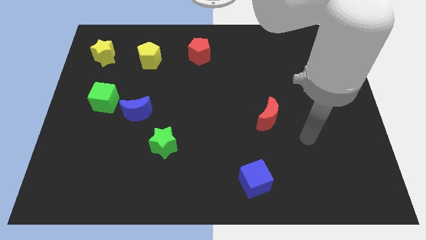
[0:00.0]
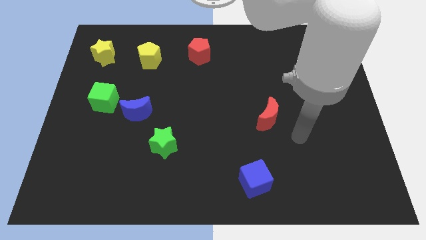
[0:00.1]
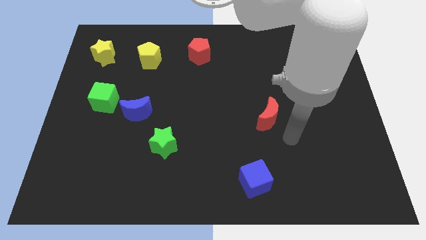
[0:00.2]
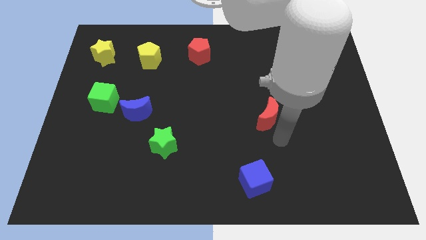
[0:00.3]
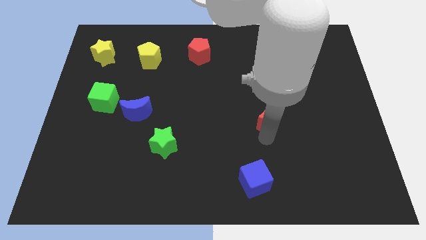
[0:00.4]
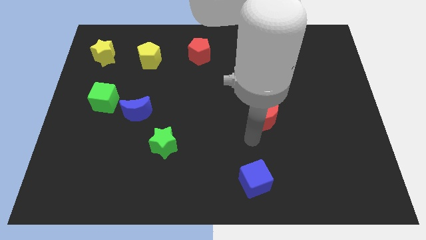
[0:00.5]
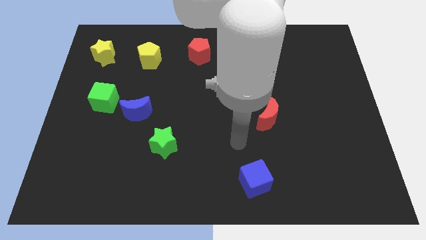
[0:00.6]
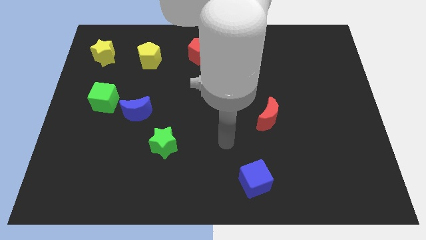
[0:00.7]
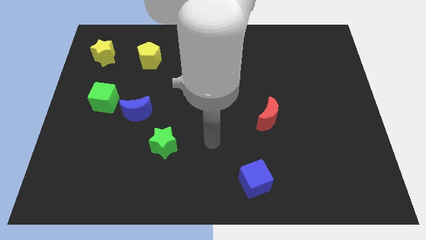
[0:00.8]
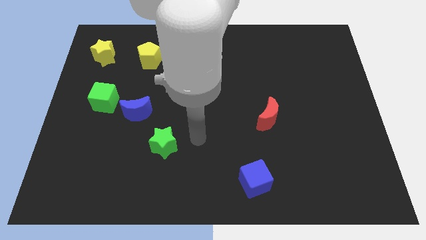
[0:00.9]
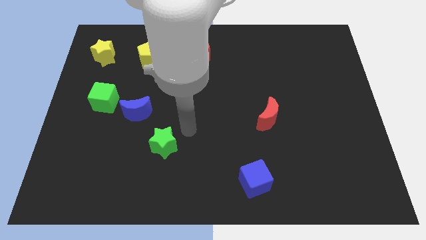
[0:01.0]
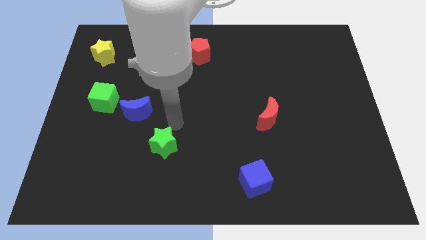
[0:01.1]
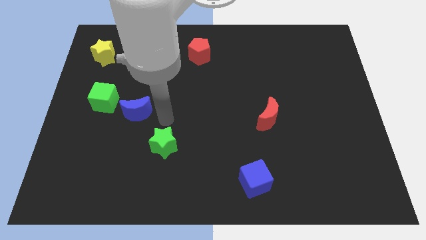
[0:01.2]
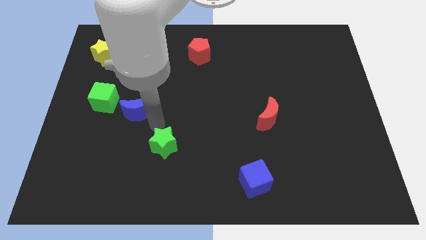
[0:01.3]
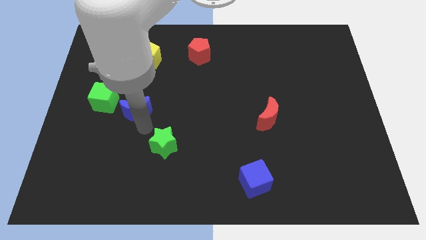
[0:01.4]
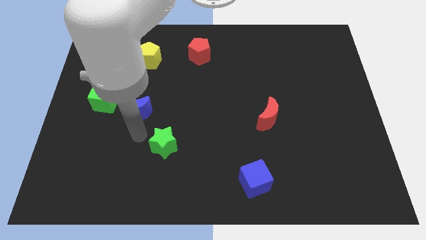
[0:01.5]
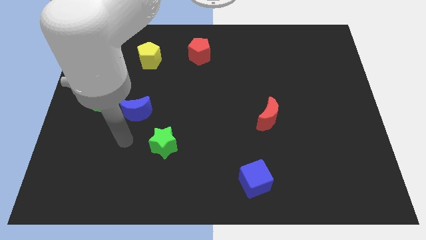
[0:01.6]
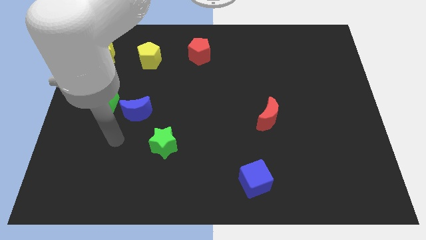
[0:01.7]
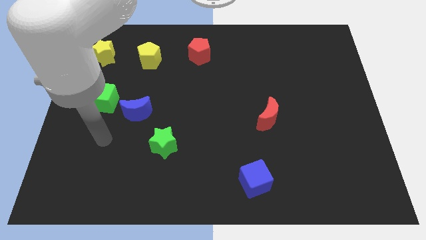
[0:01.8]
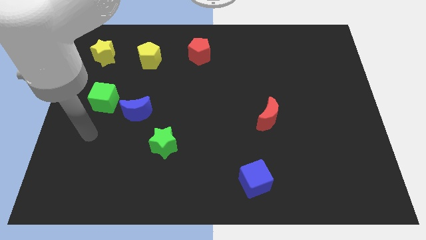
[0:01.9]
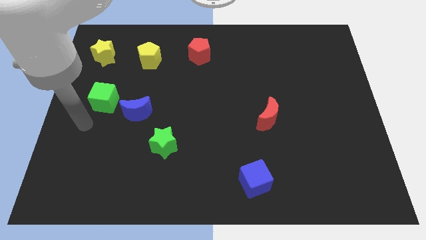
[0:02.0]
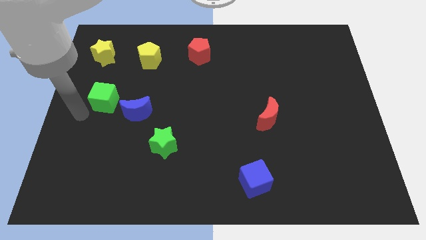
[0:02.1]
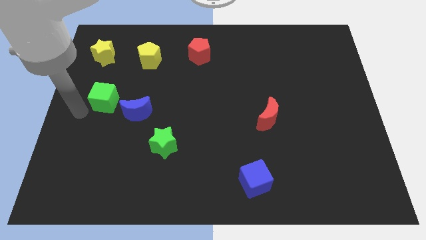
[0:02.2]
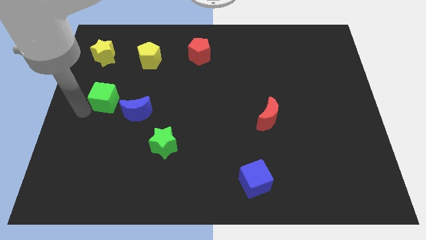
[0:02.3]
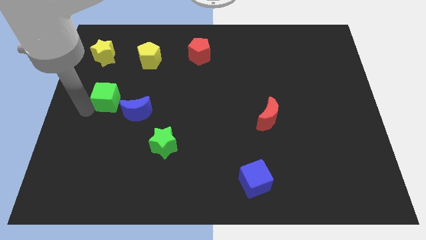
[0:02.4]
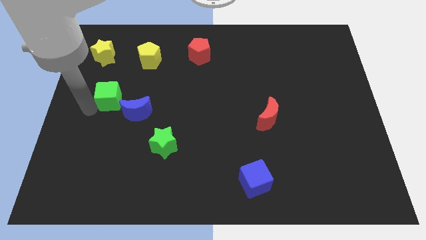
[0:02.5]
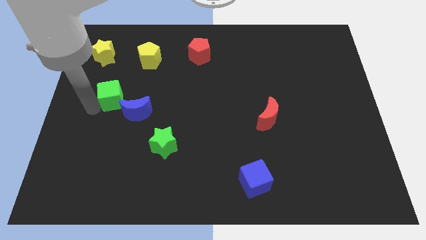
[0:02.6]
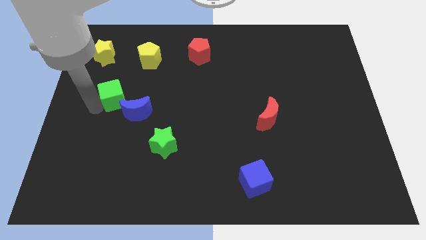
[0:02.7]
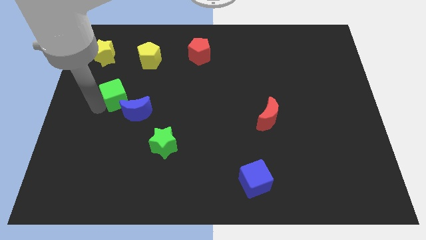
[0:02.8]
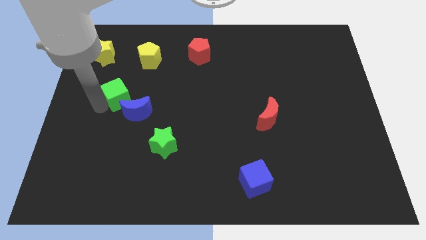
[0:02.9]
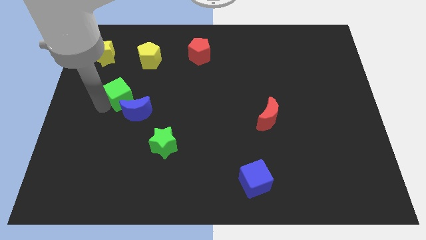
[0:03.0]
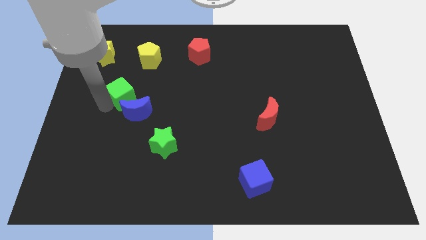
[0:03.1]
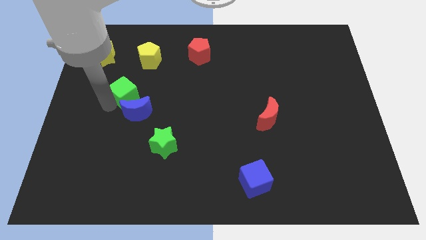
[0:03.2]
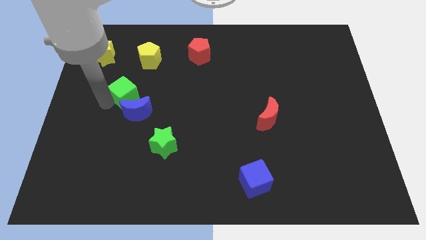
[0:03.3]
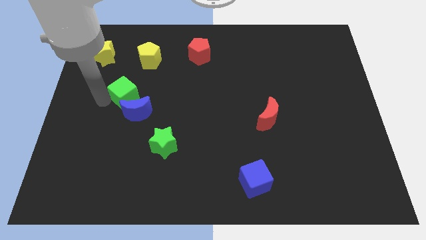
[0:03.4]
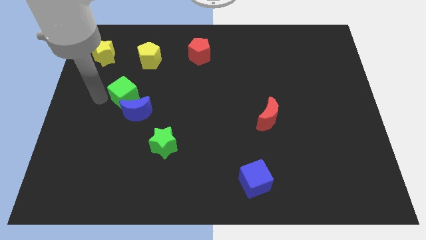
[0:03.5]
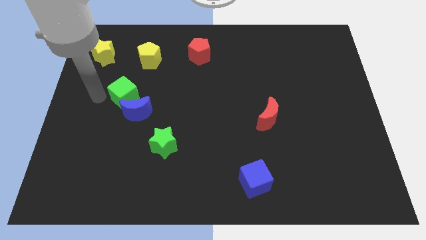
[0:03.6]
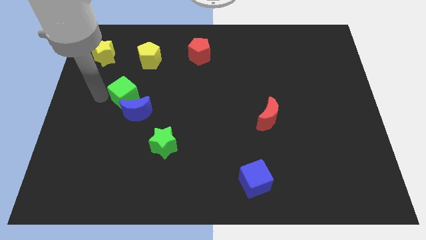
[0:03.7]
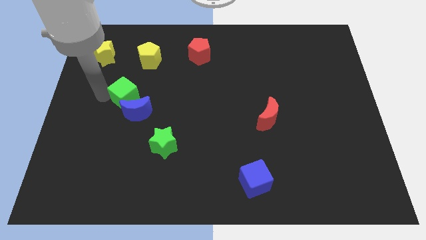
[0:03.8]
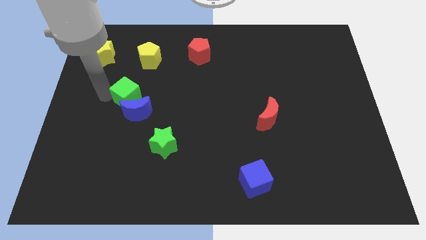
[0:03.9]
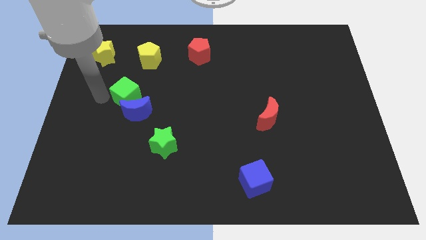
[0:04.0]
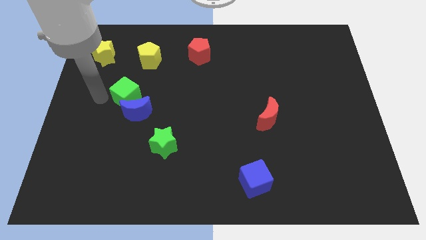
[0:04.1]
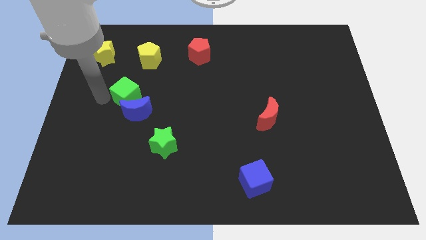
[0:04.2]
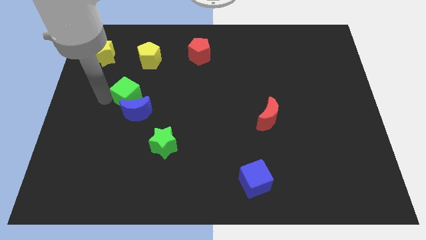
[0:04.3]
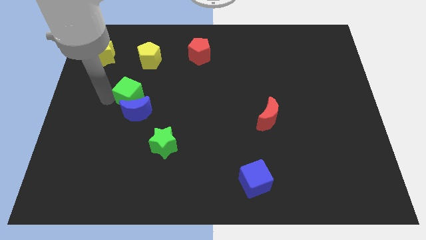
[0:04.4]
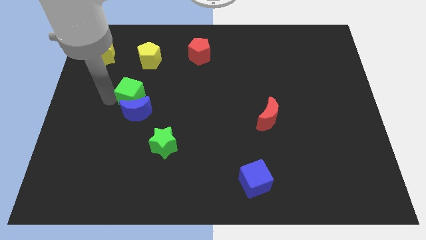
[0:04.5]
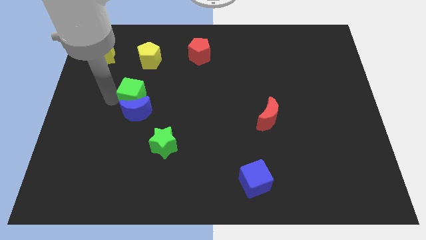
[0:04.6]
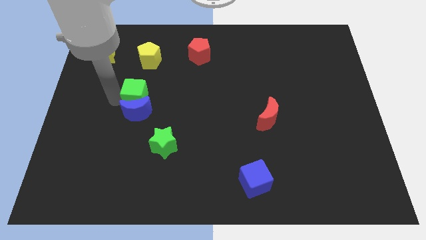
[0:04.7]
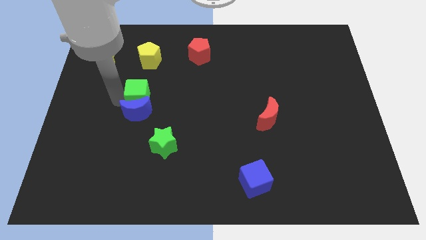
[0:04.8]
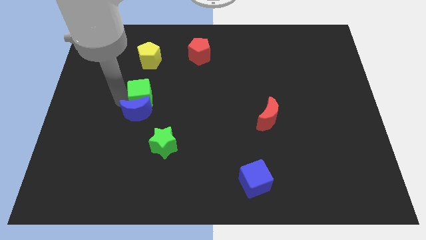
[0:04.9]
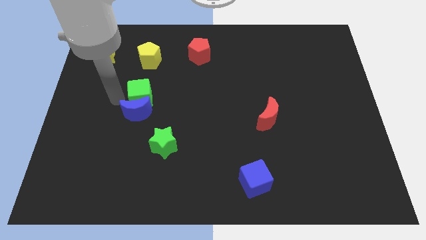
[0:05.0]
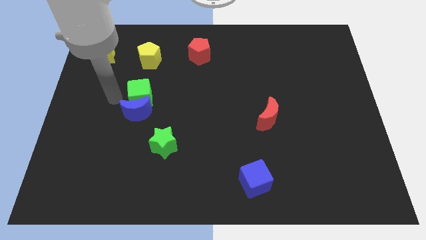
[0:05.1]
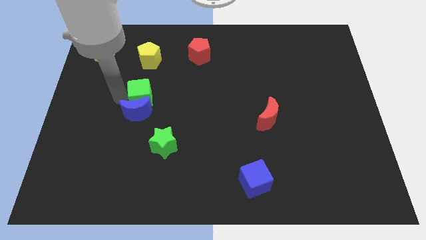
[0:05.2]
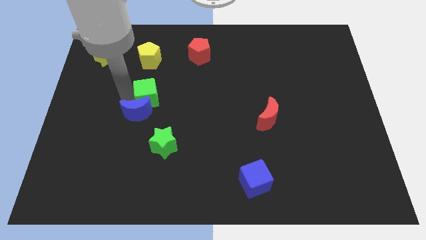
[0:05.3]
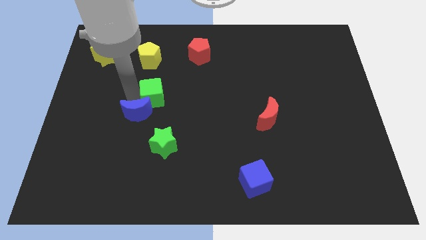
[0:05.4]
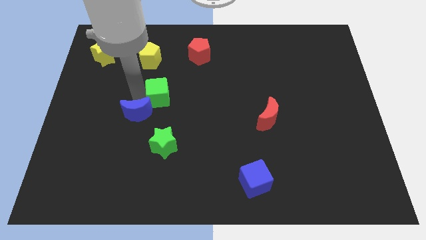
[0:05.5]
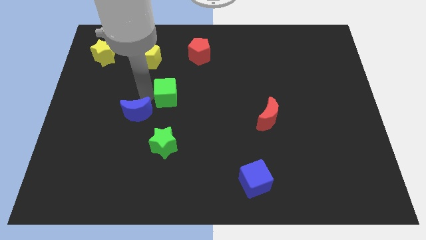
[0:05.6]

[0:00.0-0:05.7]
put the green cube to the middle of the board

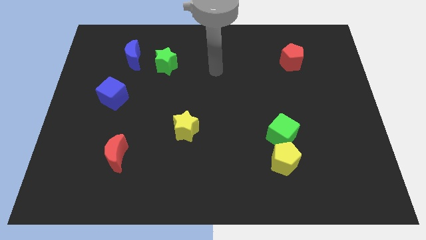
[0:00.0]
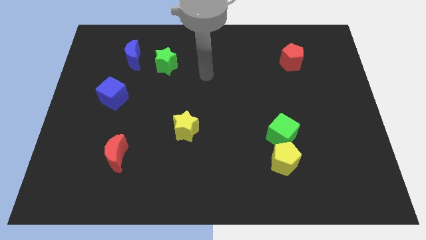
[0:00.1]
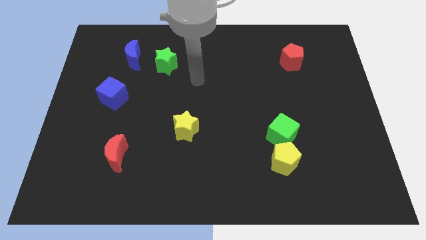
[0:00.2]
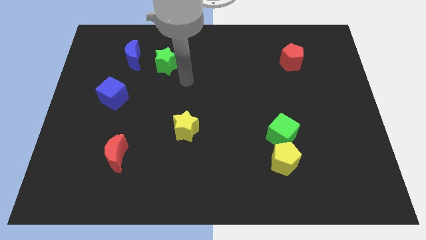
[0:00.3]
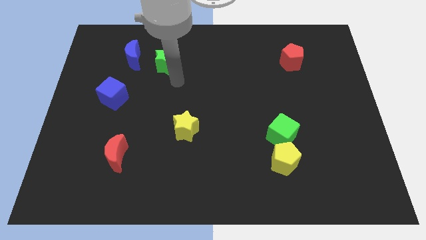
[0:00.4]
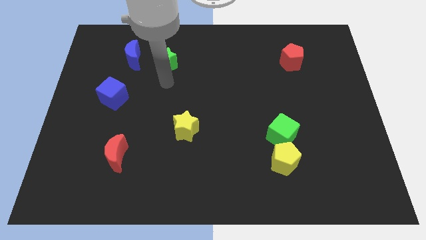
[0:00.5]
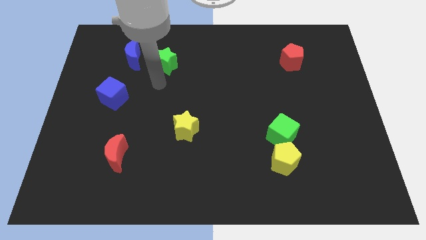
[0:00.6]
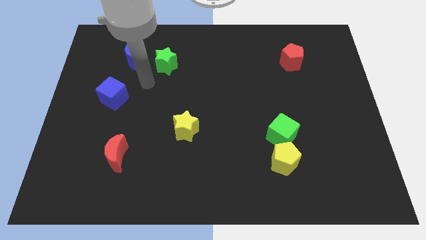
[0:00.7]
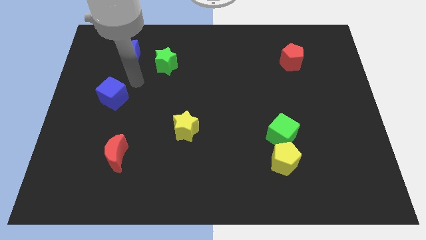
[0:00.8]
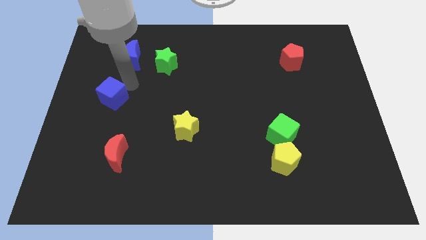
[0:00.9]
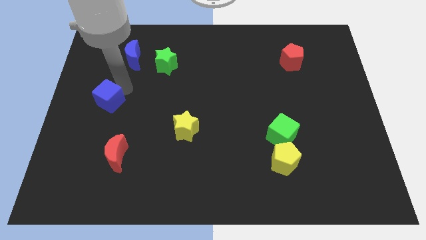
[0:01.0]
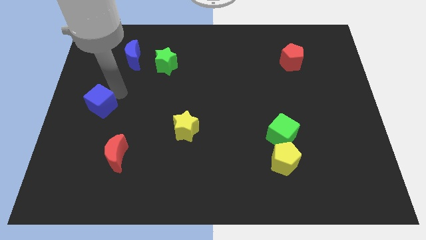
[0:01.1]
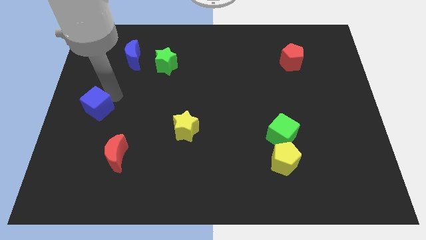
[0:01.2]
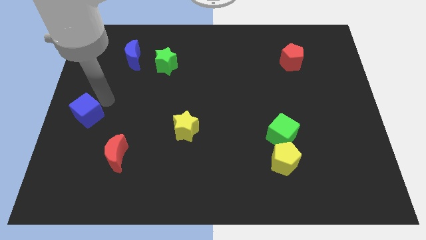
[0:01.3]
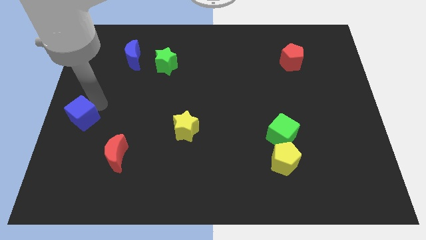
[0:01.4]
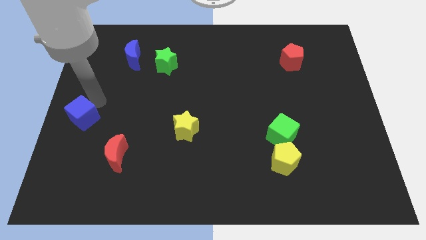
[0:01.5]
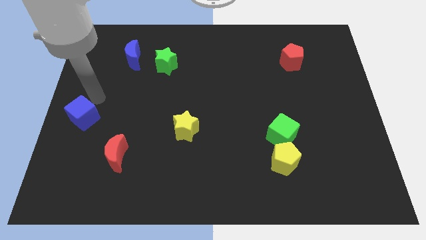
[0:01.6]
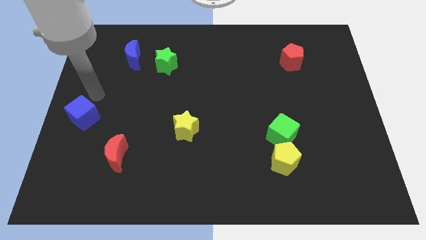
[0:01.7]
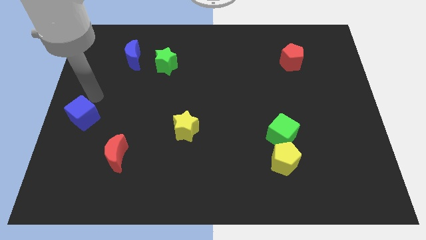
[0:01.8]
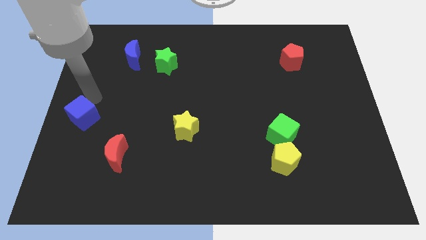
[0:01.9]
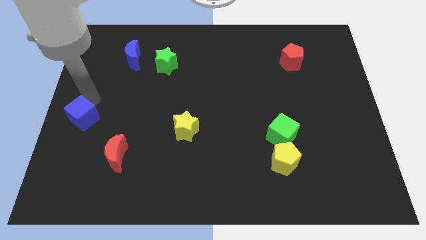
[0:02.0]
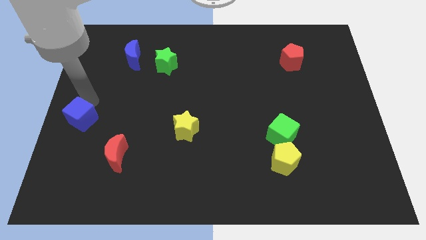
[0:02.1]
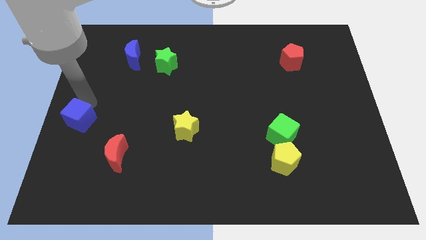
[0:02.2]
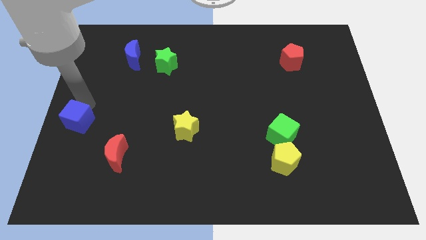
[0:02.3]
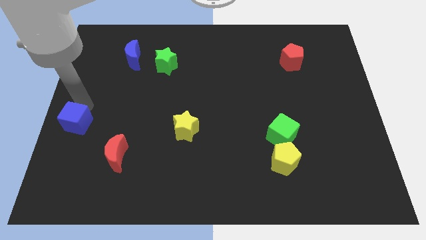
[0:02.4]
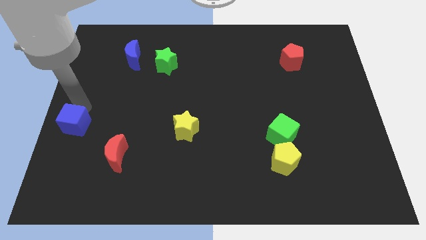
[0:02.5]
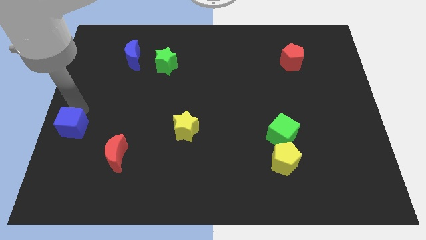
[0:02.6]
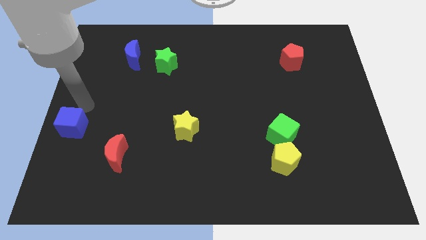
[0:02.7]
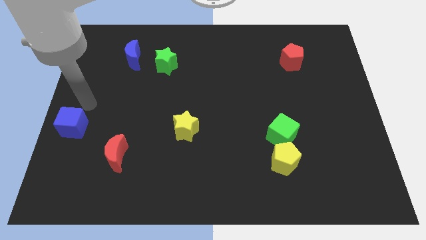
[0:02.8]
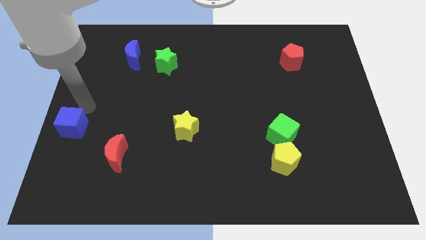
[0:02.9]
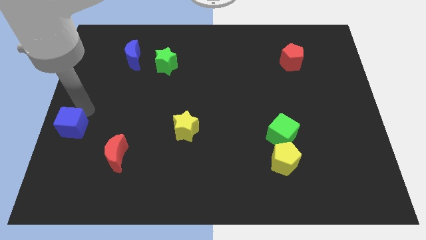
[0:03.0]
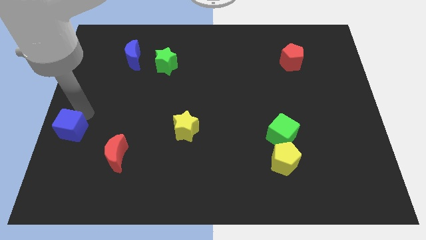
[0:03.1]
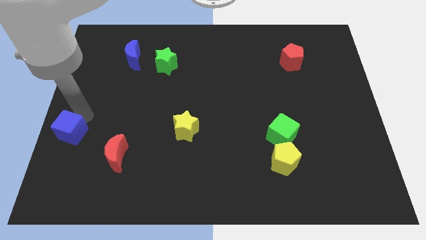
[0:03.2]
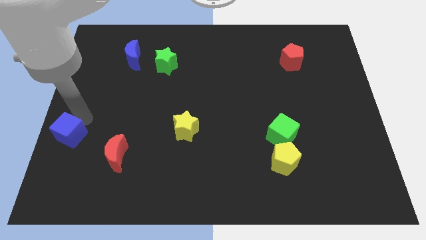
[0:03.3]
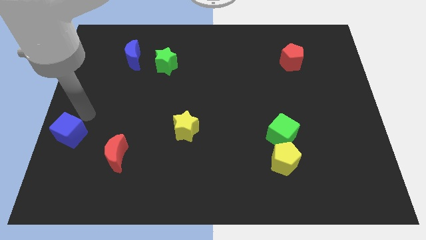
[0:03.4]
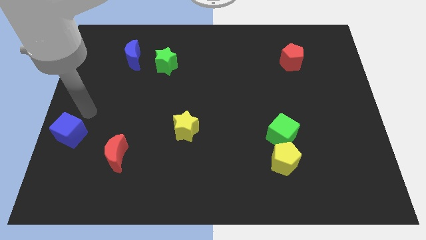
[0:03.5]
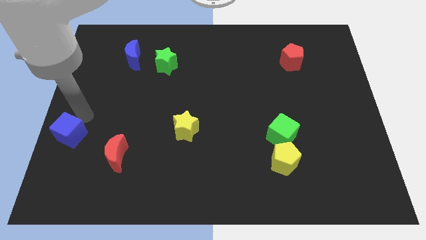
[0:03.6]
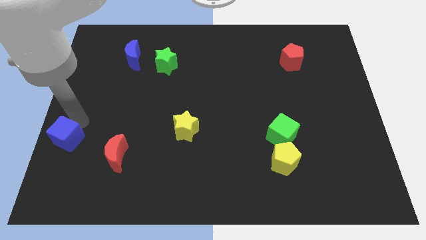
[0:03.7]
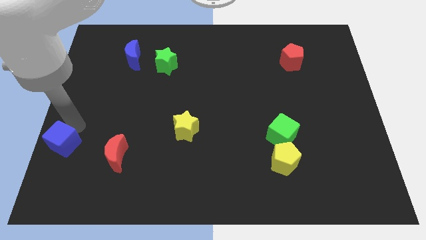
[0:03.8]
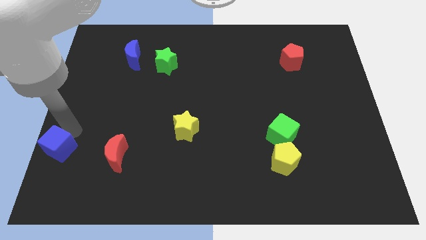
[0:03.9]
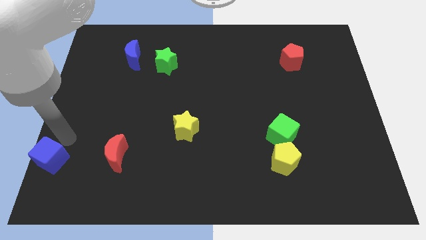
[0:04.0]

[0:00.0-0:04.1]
push the blue cube to the bottom left corner
